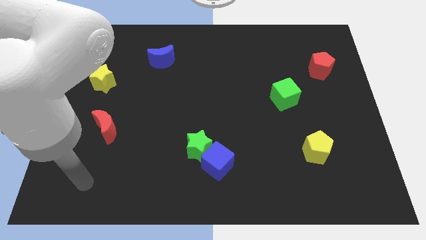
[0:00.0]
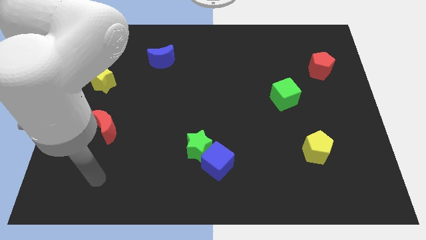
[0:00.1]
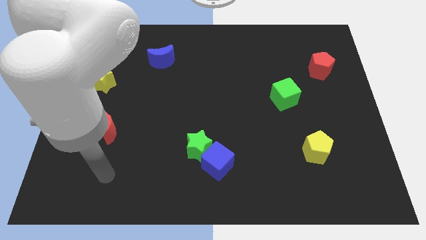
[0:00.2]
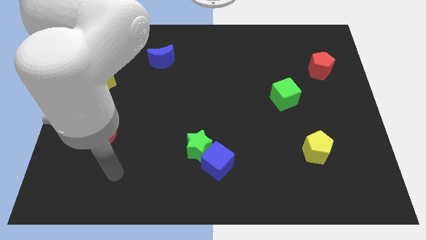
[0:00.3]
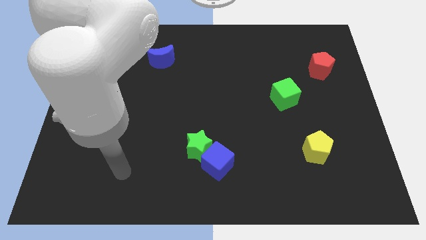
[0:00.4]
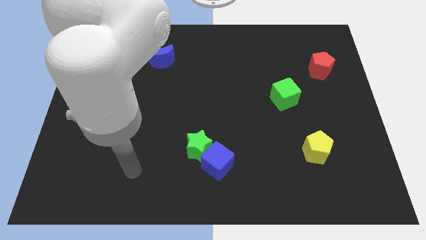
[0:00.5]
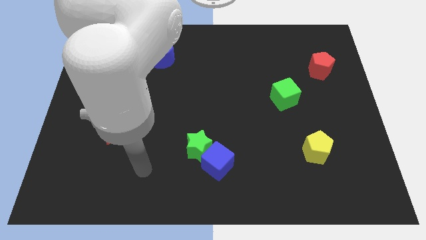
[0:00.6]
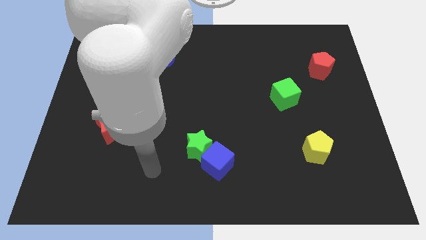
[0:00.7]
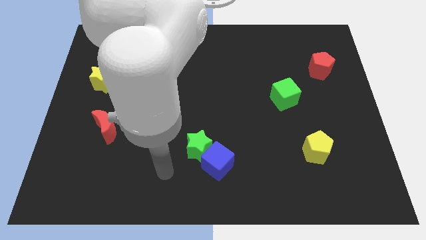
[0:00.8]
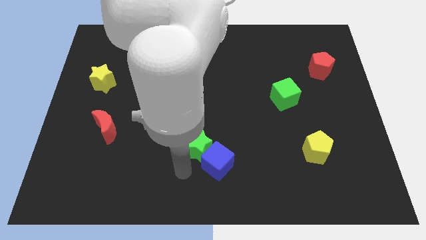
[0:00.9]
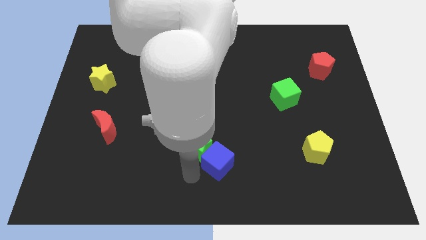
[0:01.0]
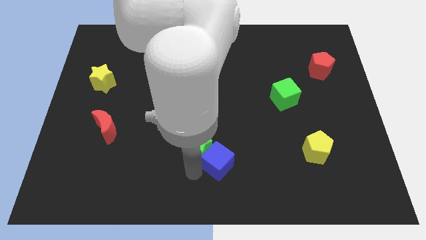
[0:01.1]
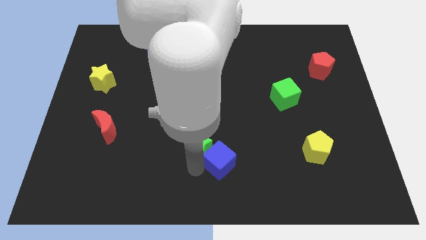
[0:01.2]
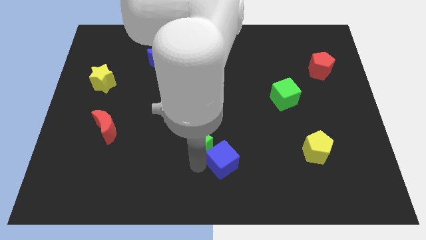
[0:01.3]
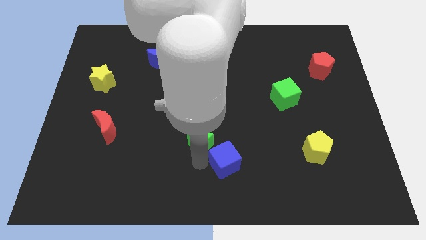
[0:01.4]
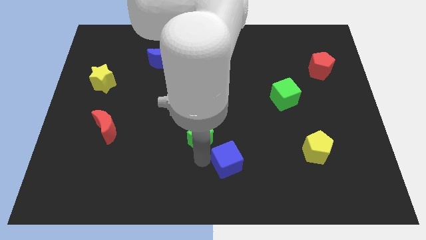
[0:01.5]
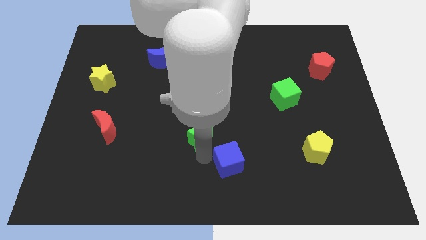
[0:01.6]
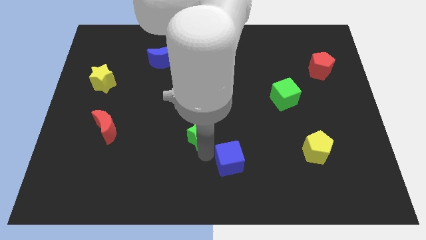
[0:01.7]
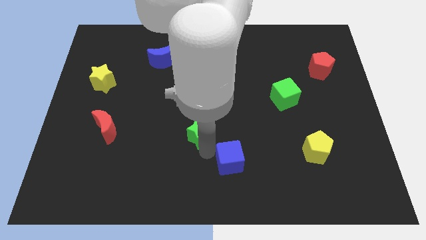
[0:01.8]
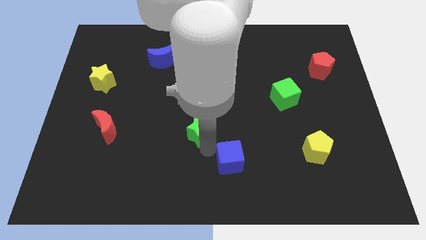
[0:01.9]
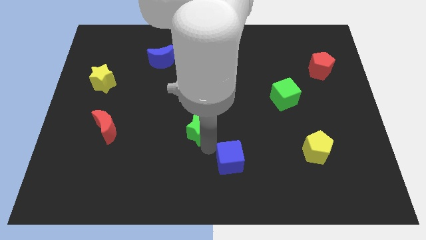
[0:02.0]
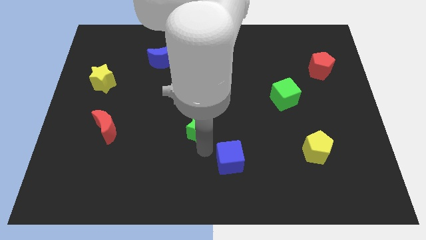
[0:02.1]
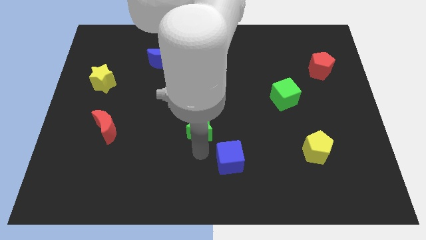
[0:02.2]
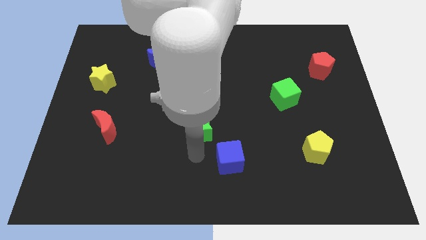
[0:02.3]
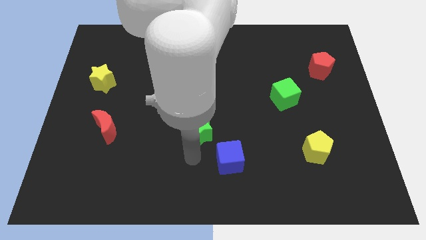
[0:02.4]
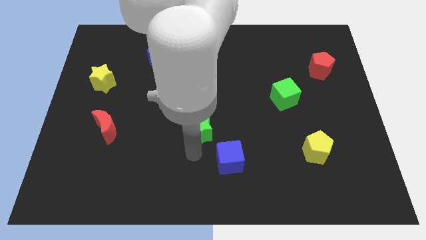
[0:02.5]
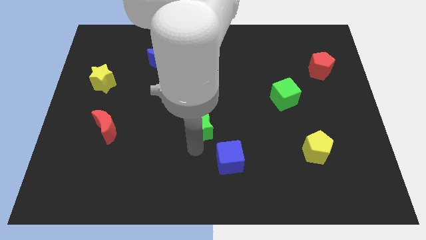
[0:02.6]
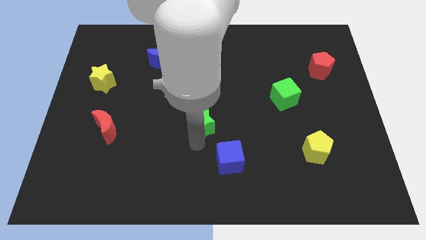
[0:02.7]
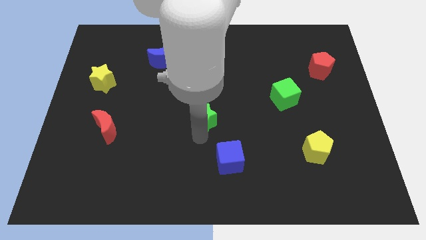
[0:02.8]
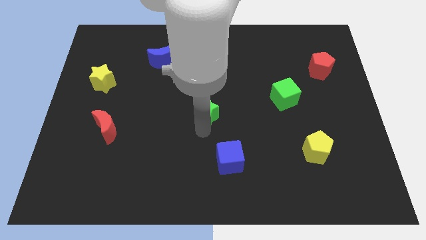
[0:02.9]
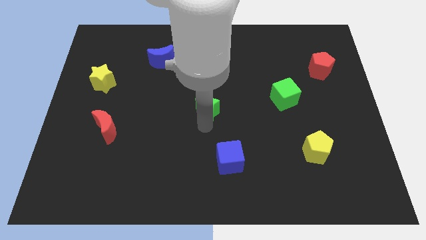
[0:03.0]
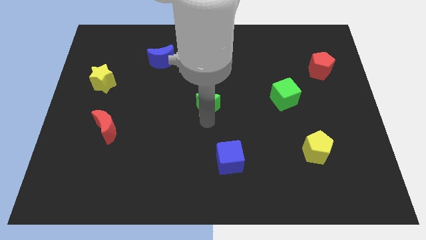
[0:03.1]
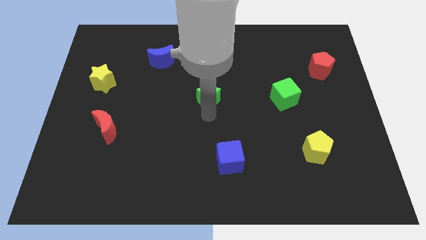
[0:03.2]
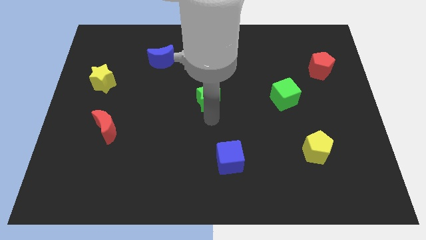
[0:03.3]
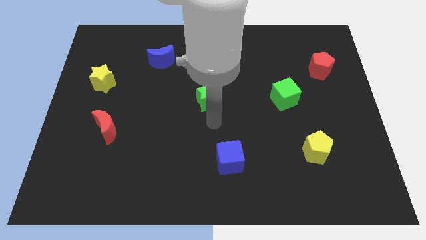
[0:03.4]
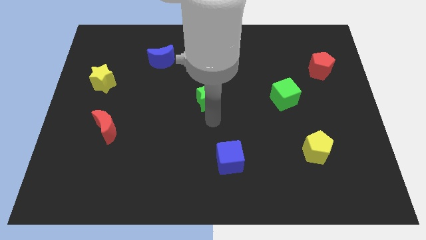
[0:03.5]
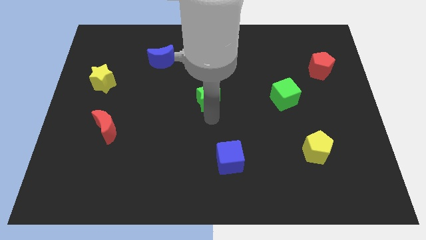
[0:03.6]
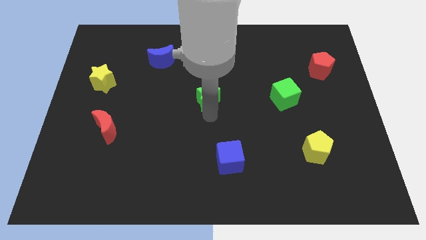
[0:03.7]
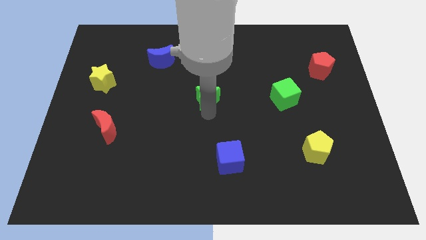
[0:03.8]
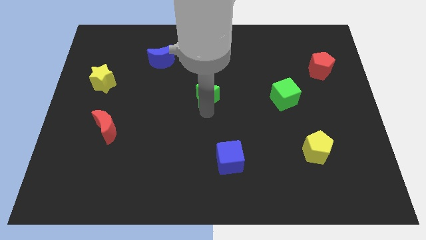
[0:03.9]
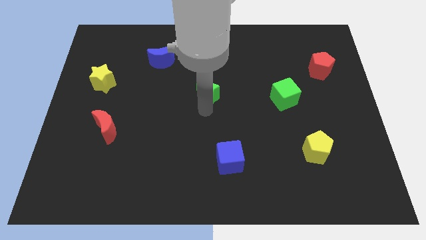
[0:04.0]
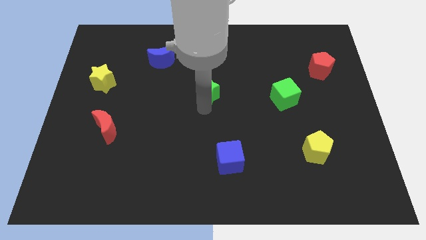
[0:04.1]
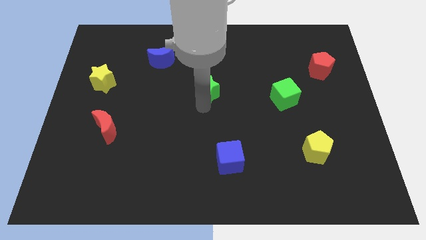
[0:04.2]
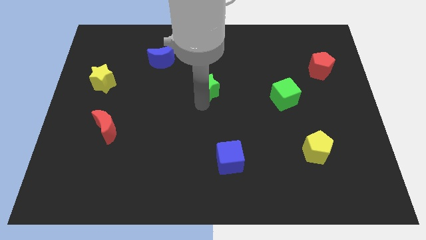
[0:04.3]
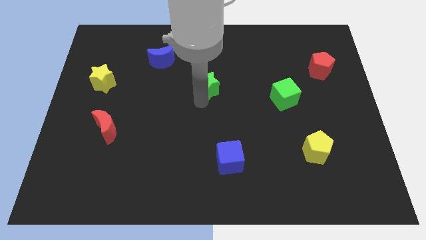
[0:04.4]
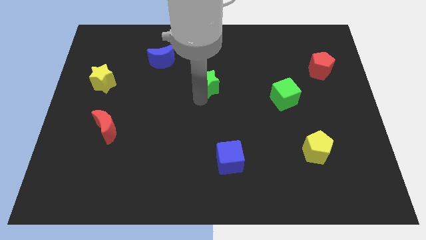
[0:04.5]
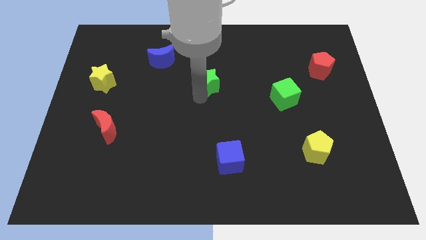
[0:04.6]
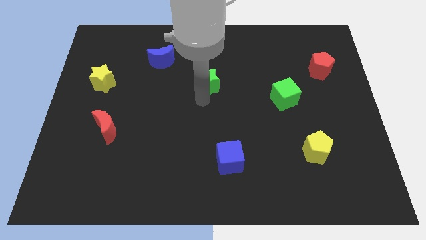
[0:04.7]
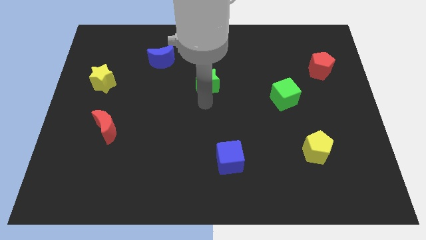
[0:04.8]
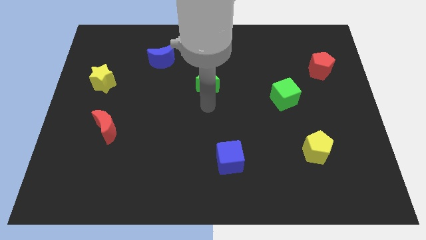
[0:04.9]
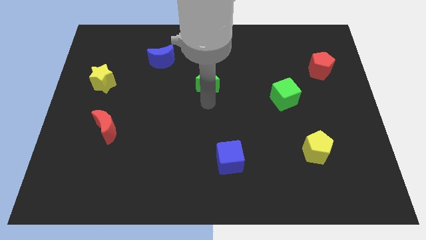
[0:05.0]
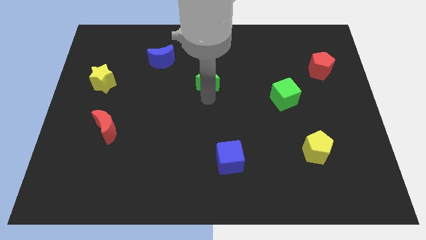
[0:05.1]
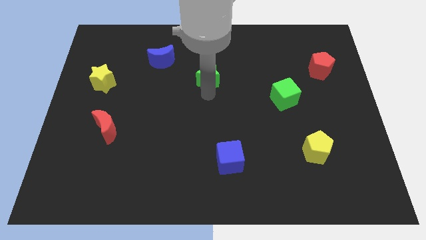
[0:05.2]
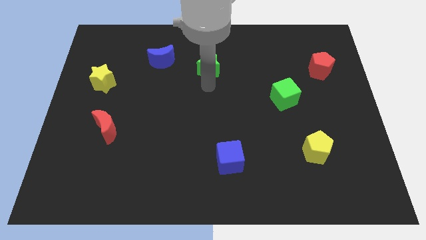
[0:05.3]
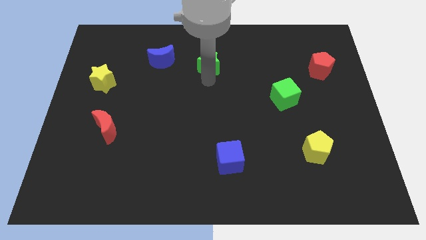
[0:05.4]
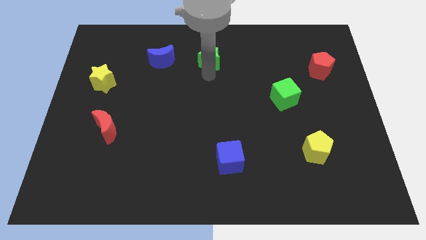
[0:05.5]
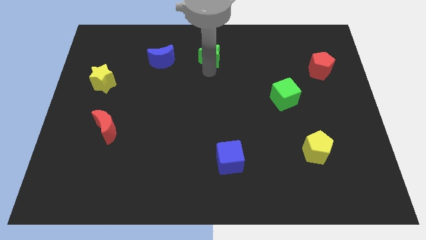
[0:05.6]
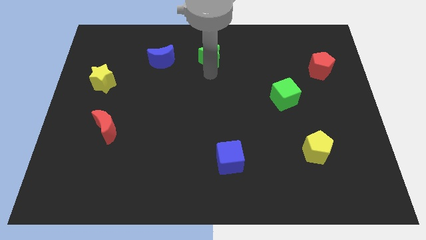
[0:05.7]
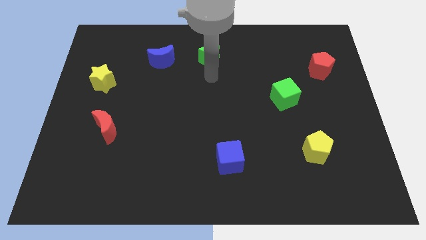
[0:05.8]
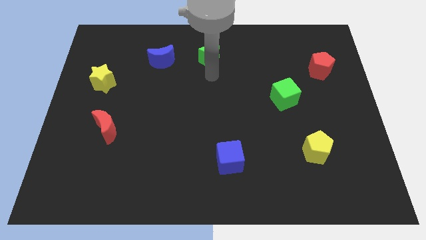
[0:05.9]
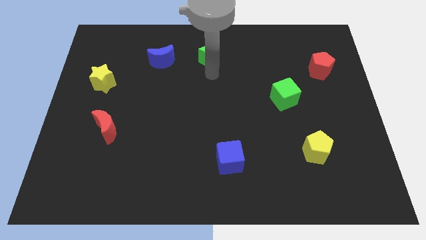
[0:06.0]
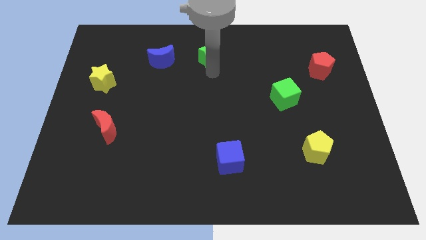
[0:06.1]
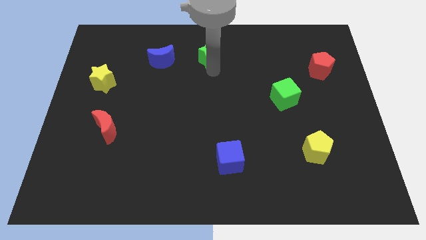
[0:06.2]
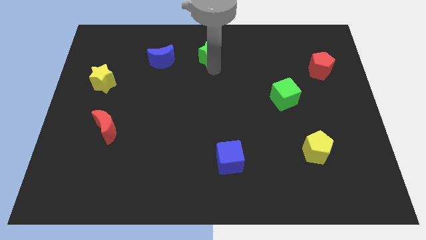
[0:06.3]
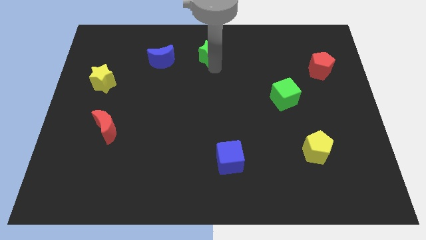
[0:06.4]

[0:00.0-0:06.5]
move the green star to the top

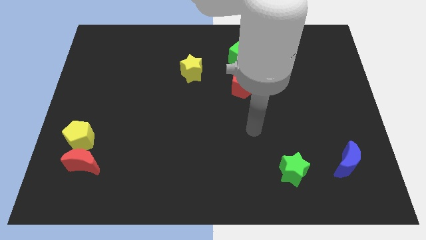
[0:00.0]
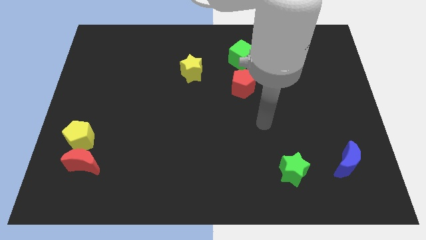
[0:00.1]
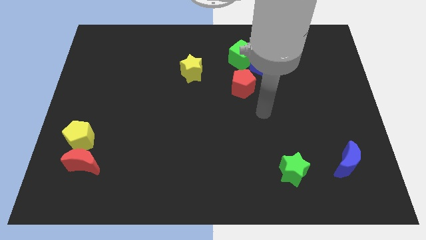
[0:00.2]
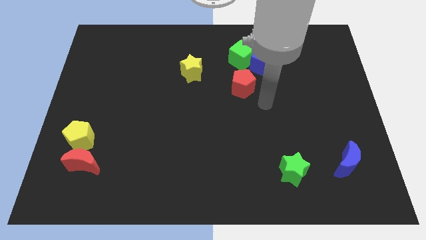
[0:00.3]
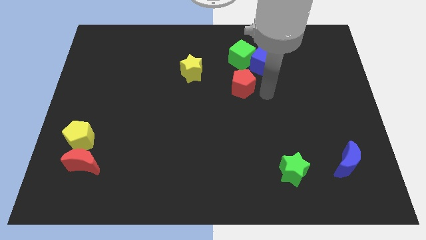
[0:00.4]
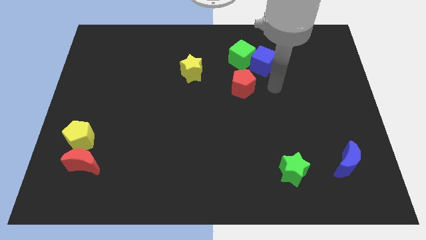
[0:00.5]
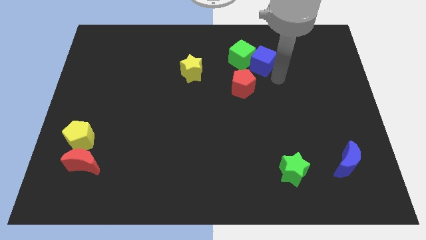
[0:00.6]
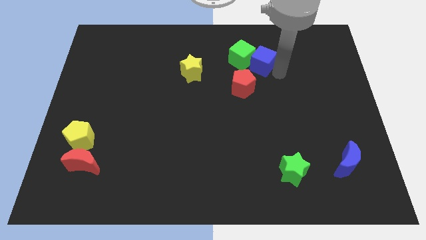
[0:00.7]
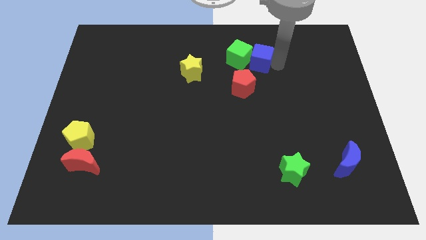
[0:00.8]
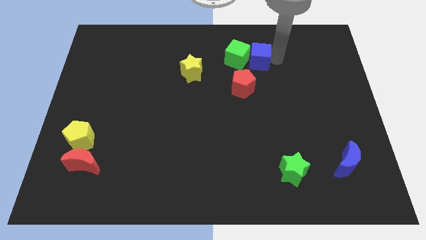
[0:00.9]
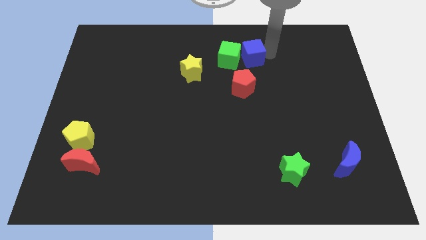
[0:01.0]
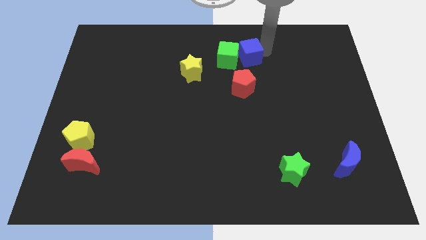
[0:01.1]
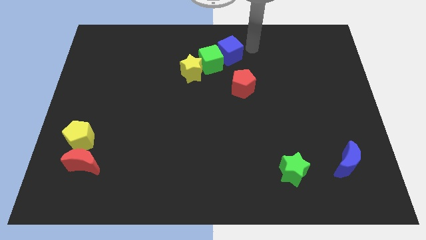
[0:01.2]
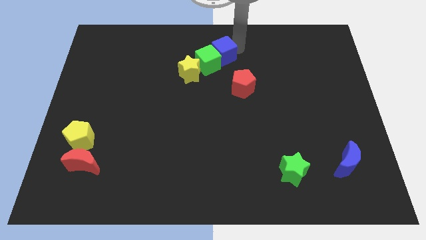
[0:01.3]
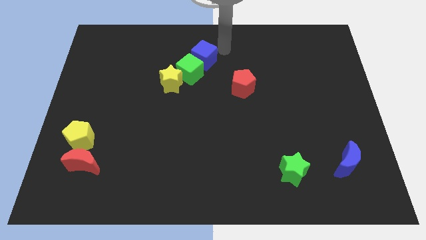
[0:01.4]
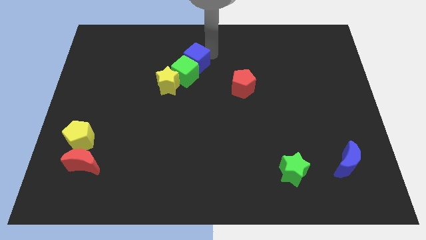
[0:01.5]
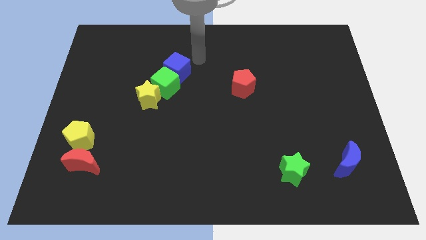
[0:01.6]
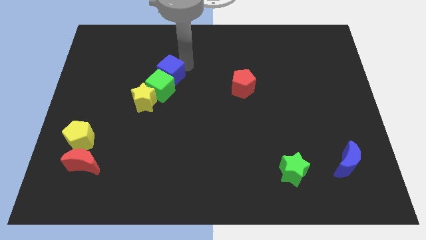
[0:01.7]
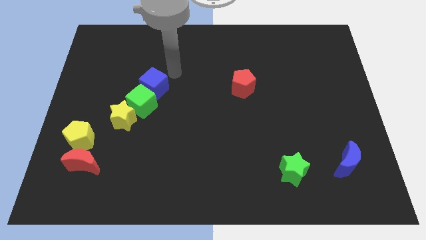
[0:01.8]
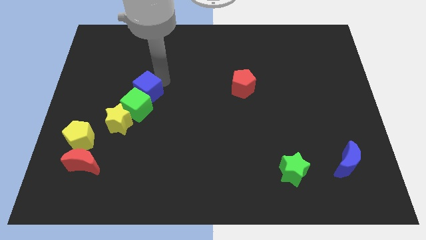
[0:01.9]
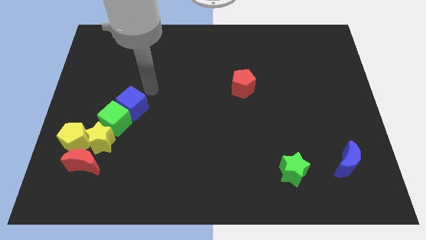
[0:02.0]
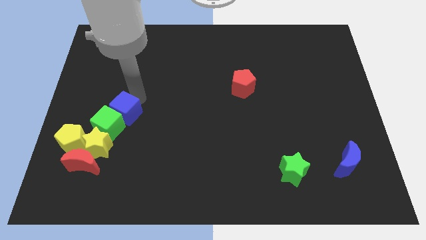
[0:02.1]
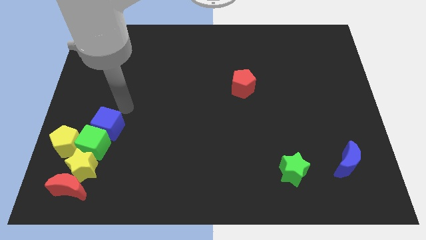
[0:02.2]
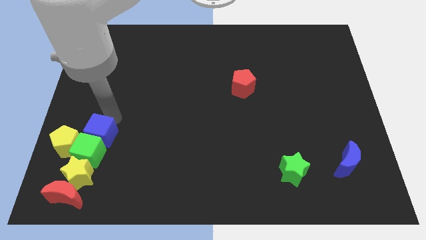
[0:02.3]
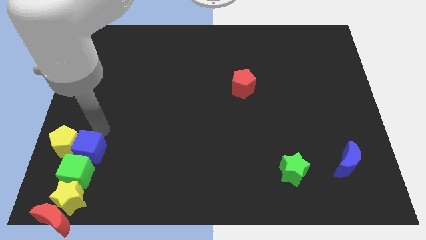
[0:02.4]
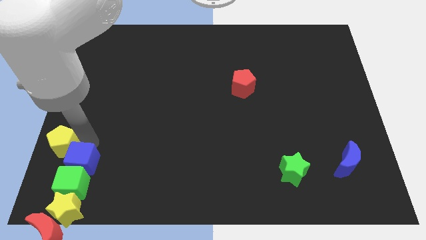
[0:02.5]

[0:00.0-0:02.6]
put the green cube to the lower left corner
